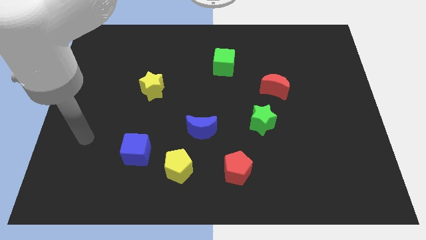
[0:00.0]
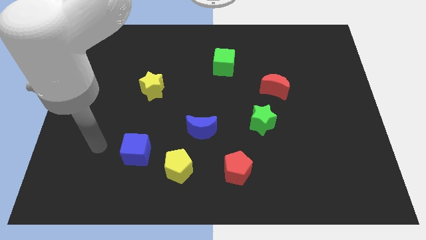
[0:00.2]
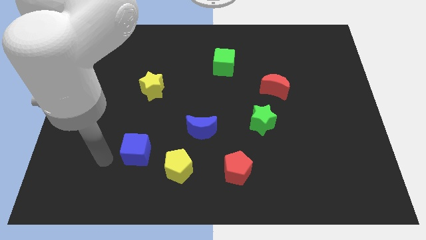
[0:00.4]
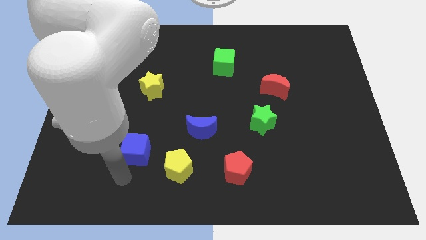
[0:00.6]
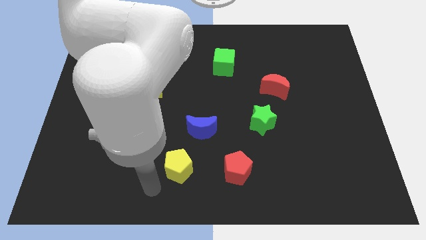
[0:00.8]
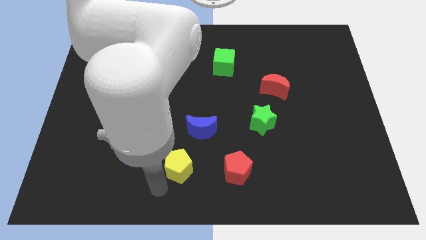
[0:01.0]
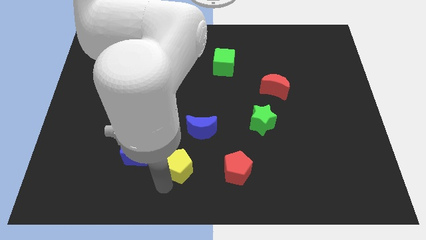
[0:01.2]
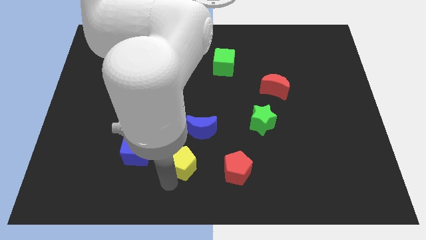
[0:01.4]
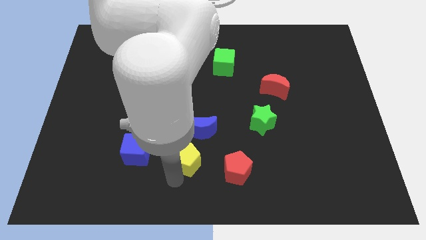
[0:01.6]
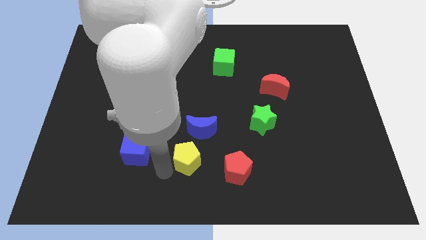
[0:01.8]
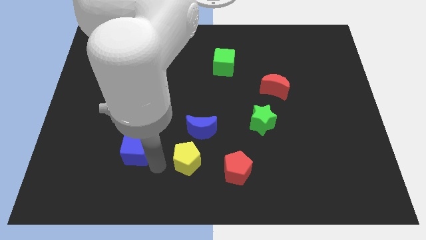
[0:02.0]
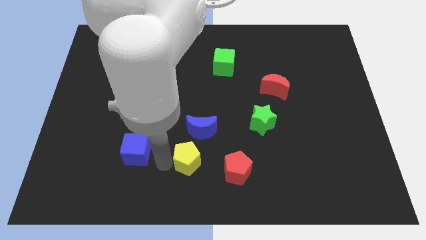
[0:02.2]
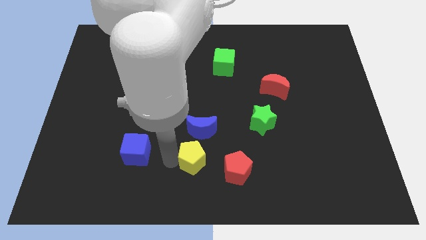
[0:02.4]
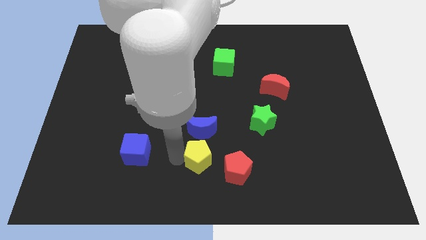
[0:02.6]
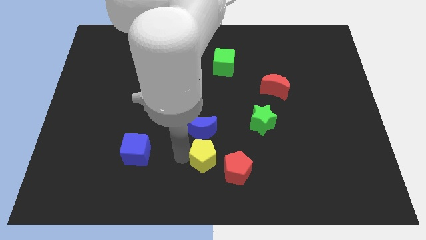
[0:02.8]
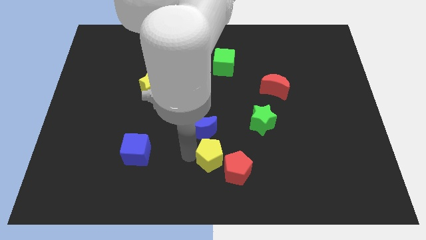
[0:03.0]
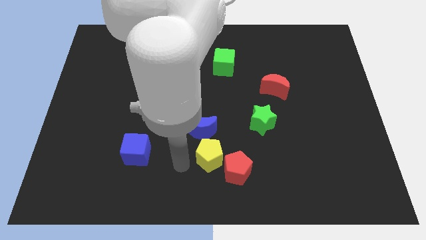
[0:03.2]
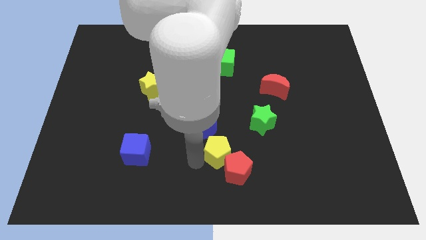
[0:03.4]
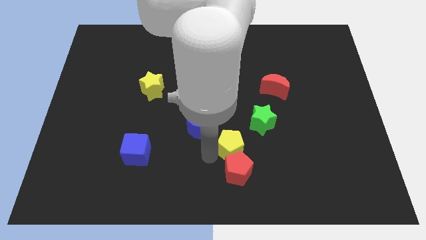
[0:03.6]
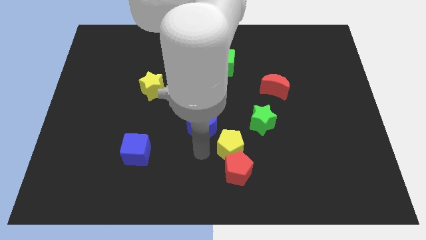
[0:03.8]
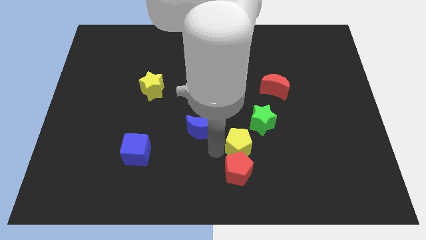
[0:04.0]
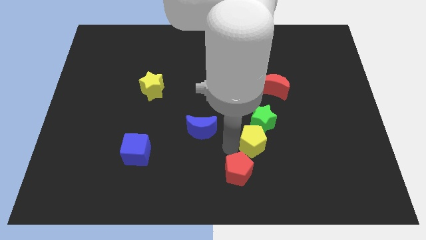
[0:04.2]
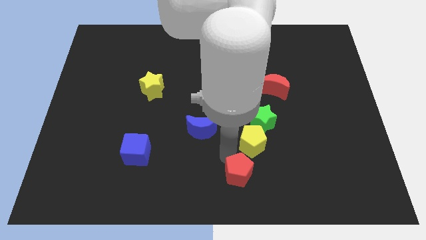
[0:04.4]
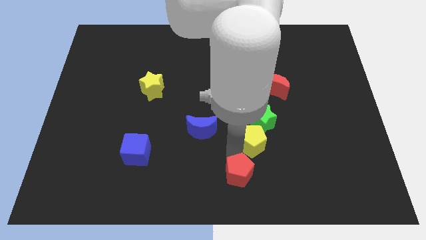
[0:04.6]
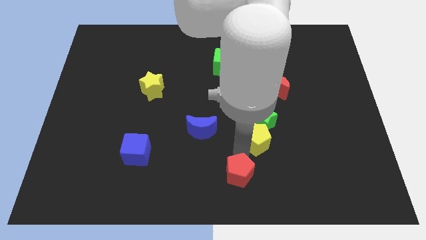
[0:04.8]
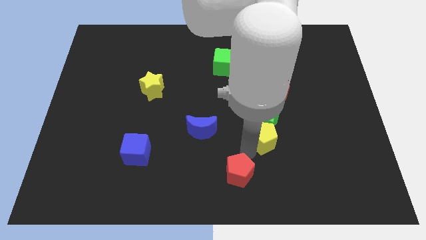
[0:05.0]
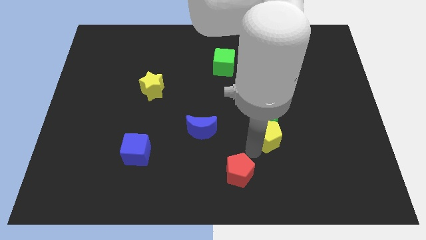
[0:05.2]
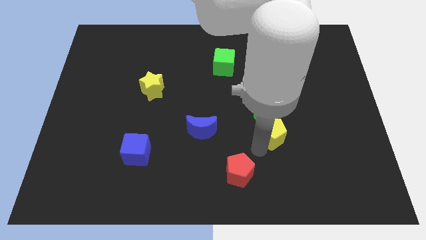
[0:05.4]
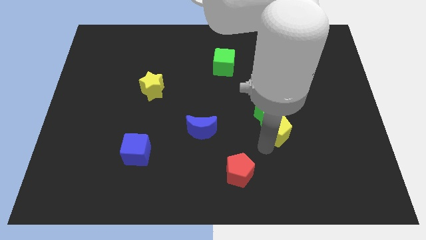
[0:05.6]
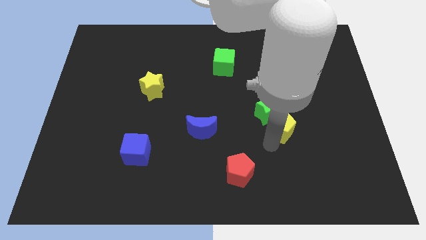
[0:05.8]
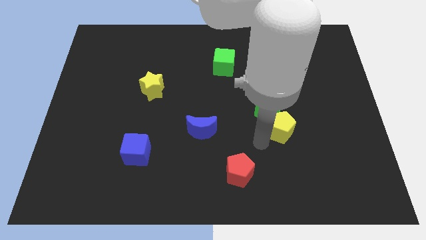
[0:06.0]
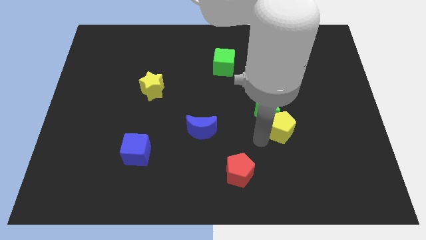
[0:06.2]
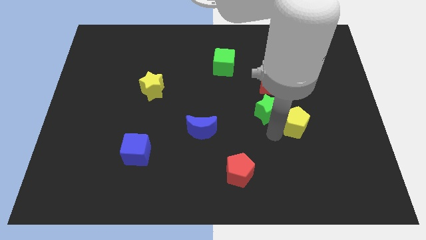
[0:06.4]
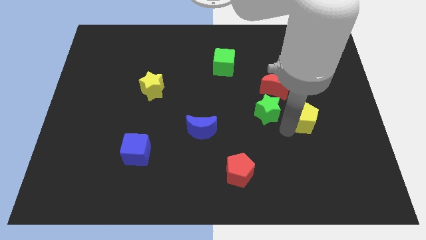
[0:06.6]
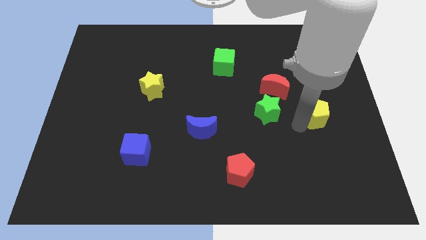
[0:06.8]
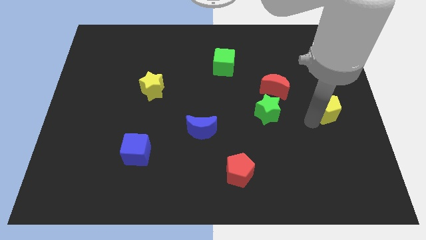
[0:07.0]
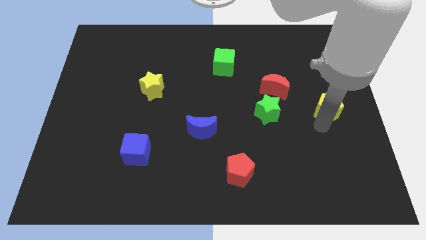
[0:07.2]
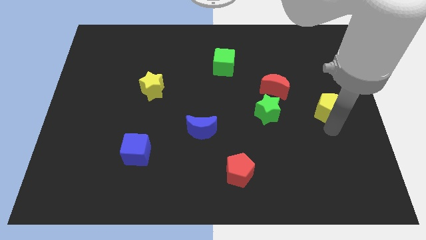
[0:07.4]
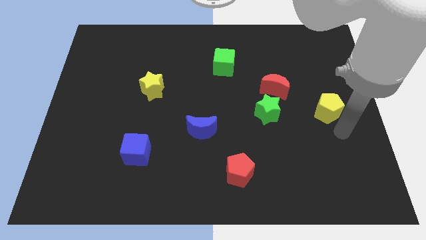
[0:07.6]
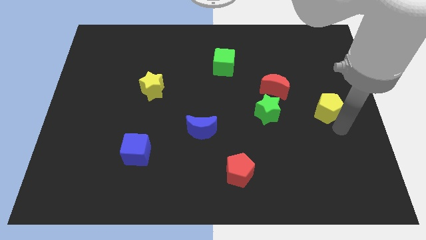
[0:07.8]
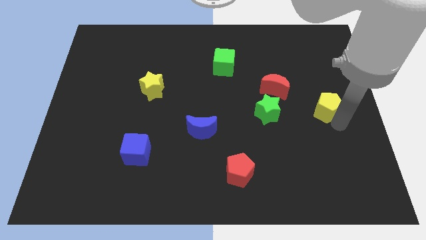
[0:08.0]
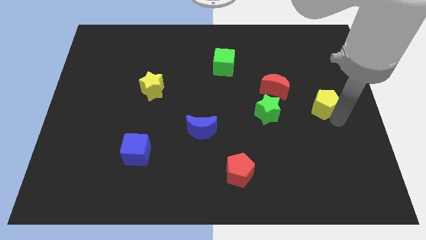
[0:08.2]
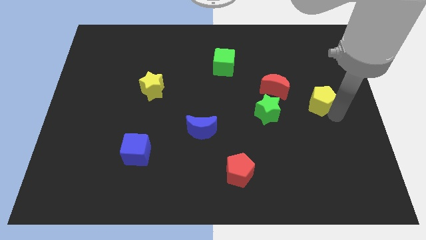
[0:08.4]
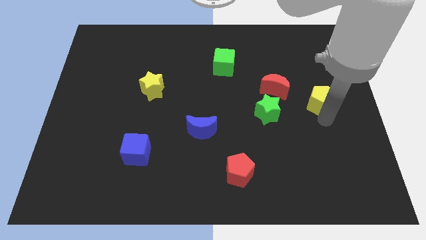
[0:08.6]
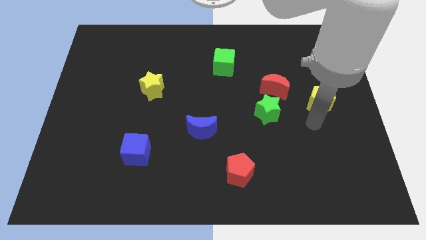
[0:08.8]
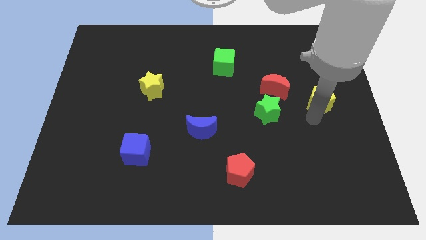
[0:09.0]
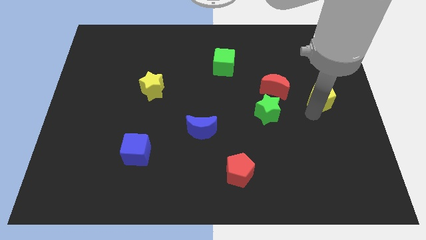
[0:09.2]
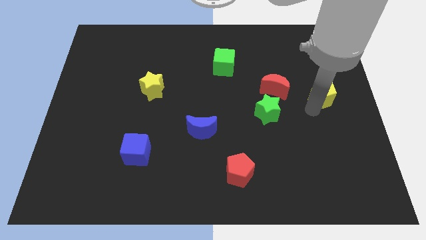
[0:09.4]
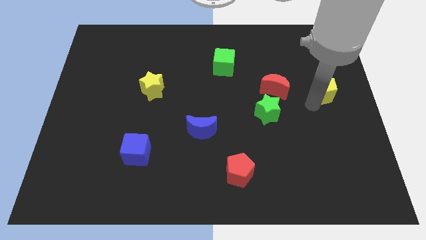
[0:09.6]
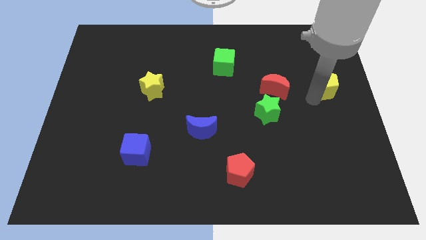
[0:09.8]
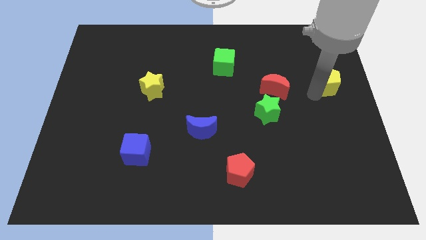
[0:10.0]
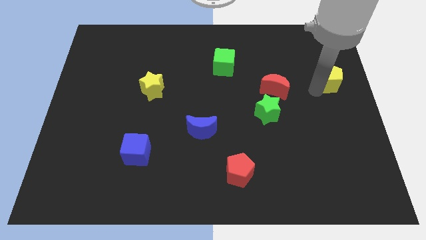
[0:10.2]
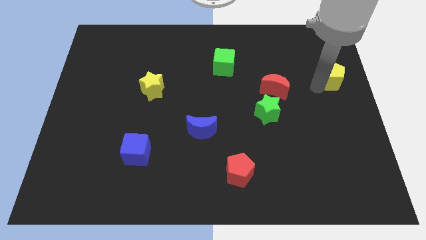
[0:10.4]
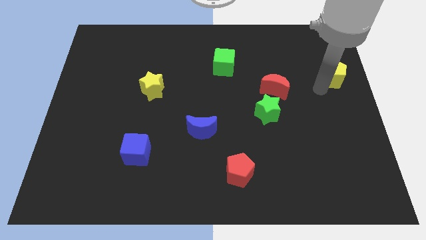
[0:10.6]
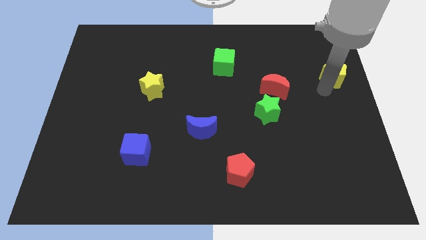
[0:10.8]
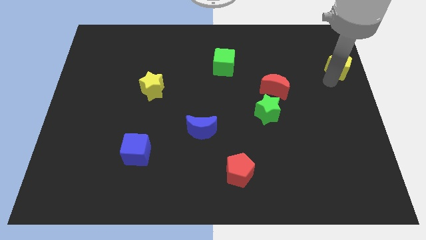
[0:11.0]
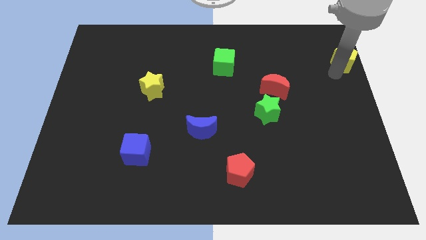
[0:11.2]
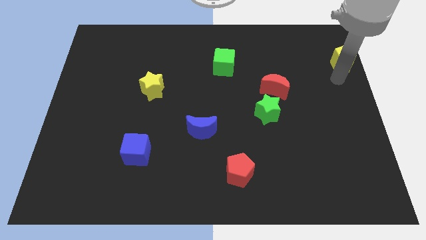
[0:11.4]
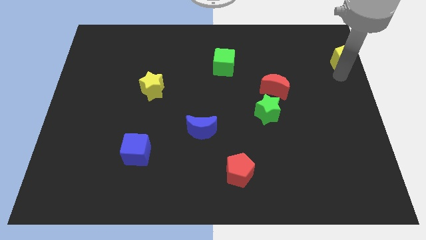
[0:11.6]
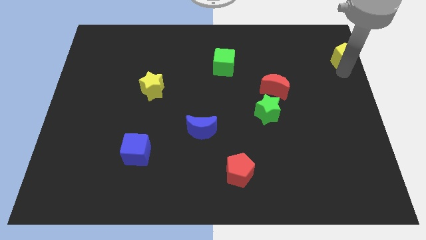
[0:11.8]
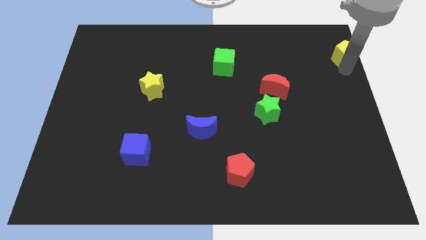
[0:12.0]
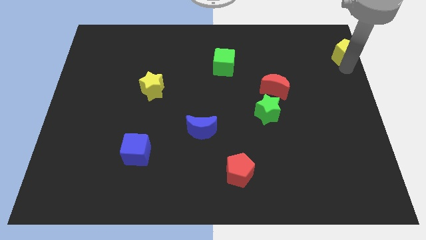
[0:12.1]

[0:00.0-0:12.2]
move the yellow pentagon to the upper right corner
